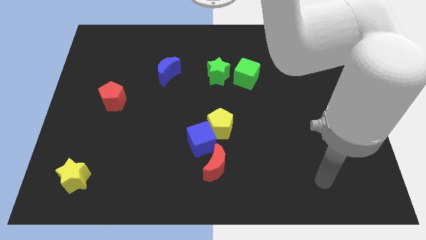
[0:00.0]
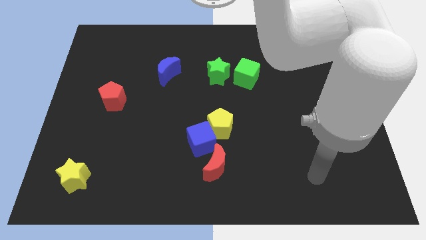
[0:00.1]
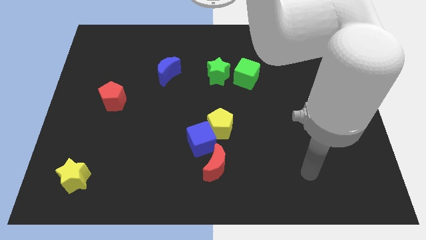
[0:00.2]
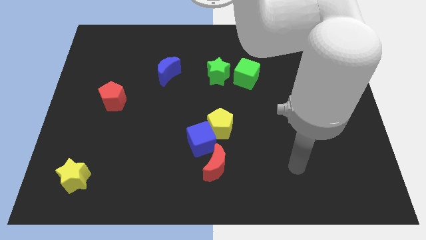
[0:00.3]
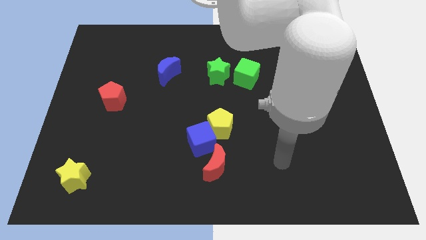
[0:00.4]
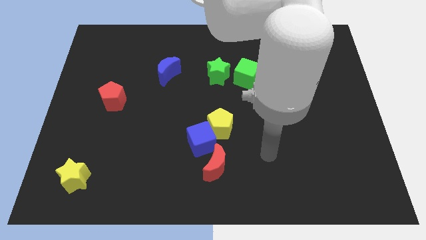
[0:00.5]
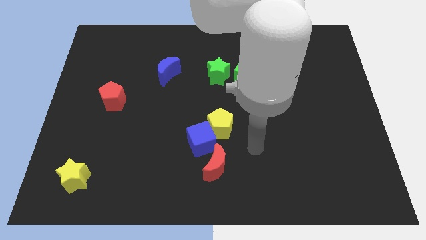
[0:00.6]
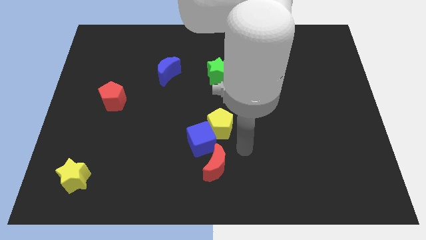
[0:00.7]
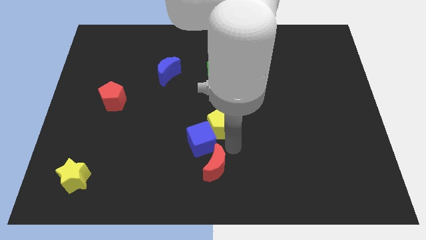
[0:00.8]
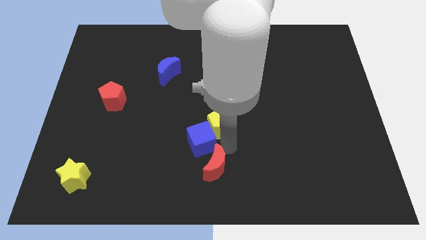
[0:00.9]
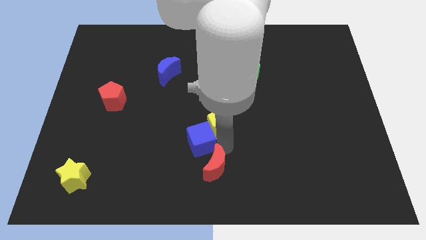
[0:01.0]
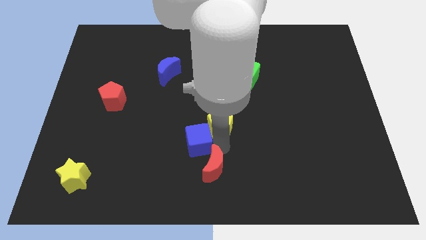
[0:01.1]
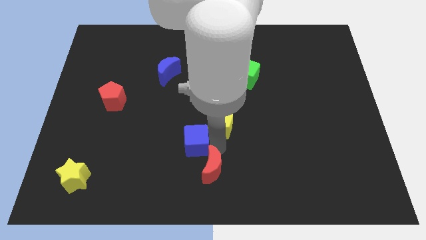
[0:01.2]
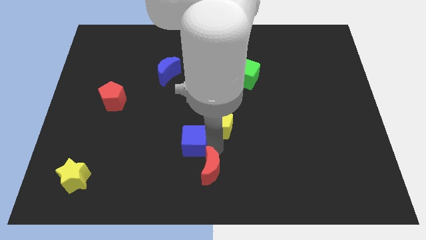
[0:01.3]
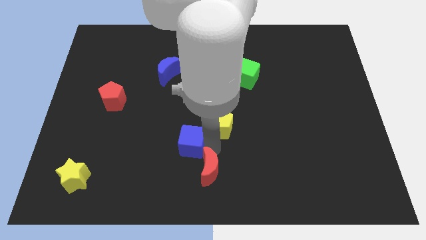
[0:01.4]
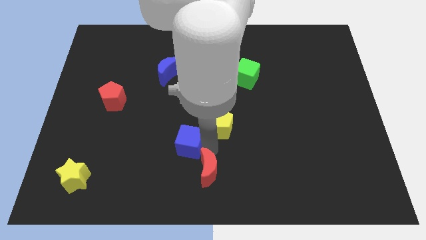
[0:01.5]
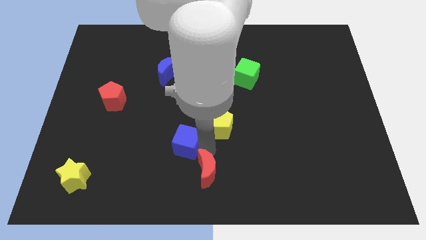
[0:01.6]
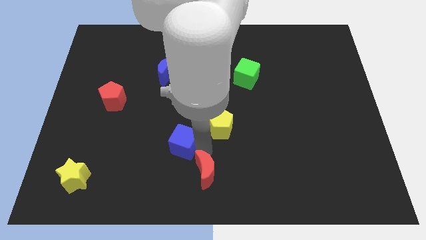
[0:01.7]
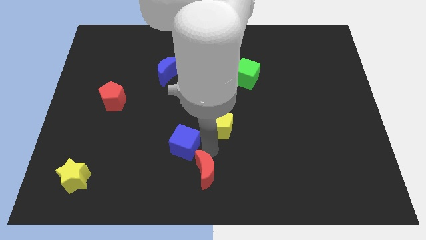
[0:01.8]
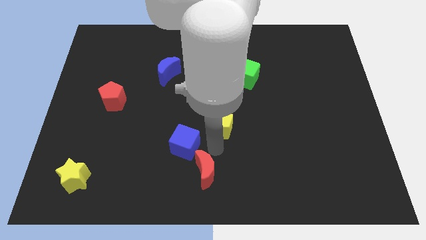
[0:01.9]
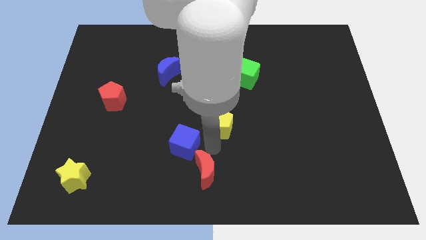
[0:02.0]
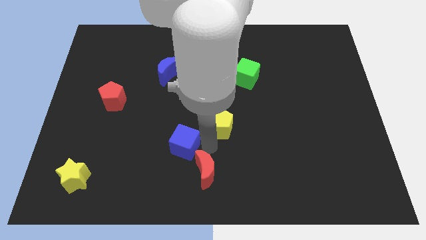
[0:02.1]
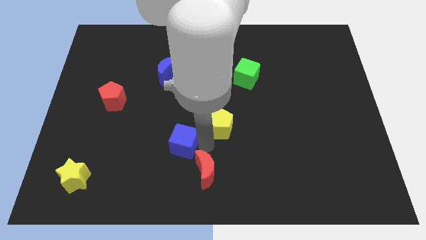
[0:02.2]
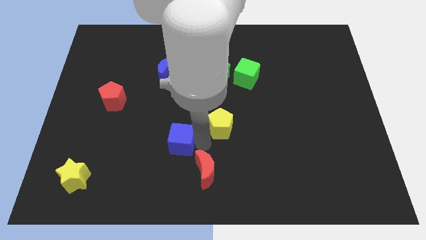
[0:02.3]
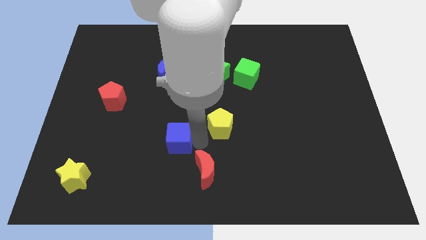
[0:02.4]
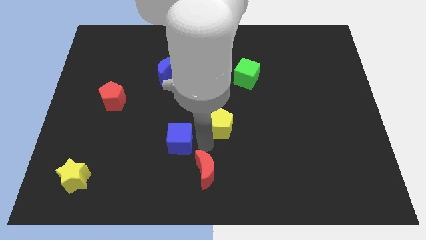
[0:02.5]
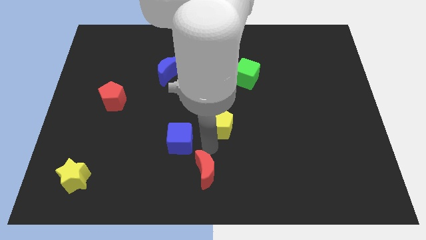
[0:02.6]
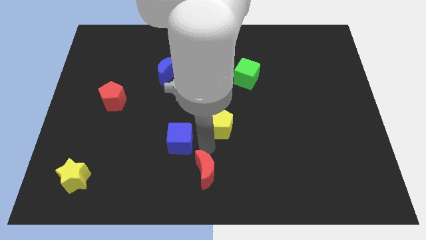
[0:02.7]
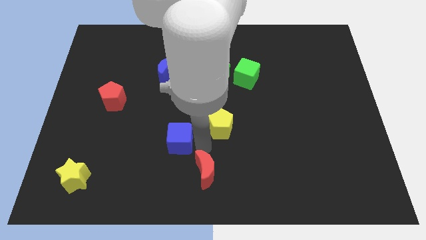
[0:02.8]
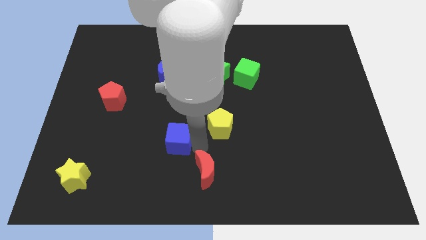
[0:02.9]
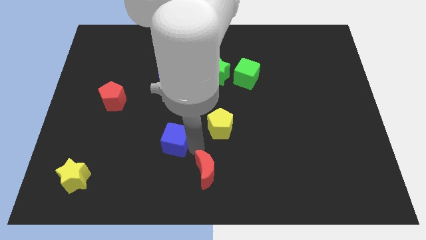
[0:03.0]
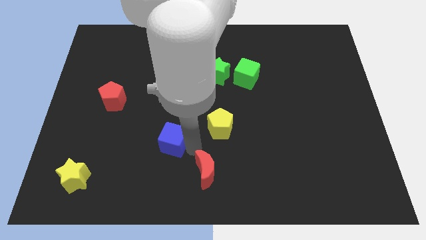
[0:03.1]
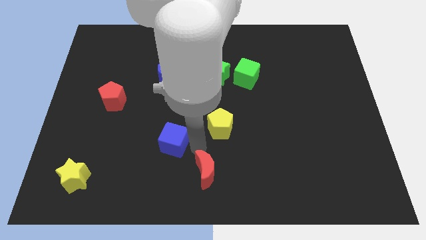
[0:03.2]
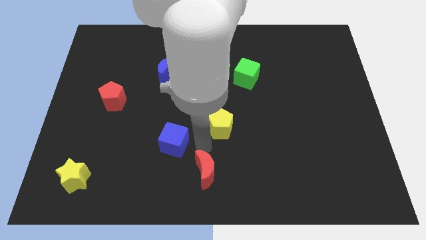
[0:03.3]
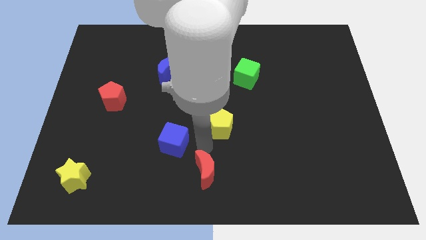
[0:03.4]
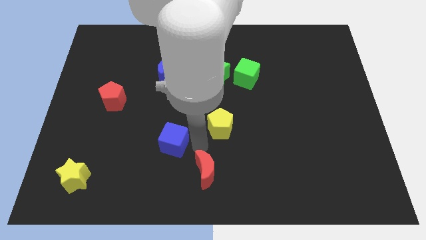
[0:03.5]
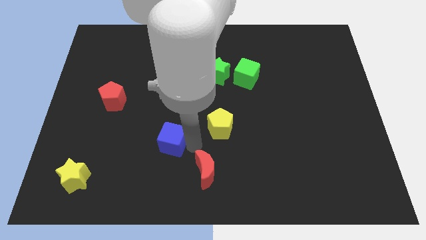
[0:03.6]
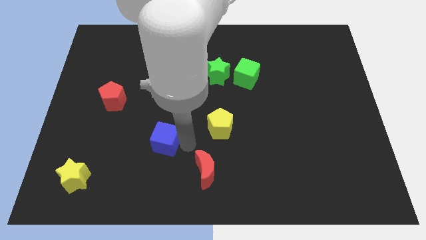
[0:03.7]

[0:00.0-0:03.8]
pull the blue cube apart from the yellow pentagon and red moon

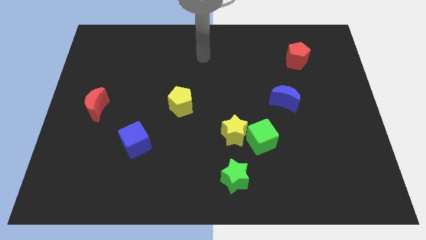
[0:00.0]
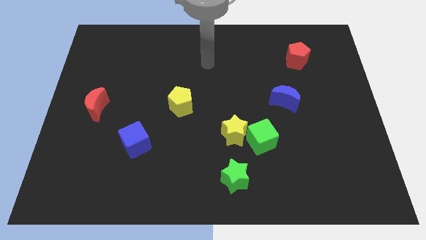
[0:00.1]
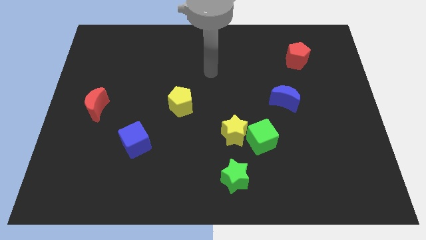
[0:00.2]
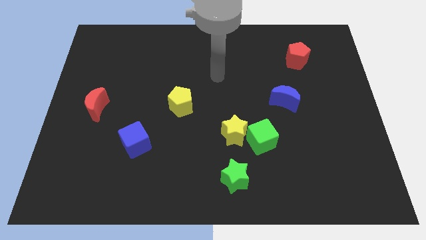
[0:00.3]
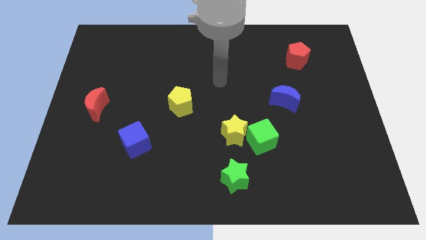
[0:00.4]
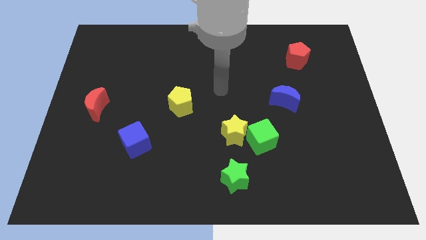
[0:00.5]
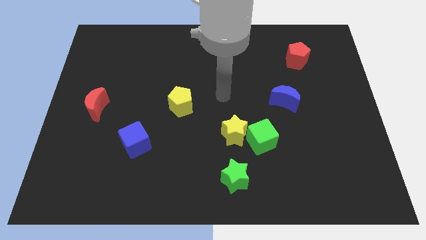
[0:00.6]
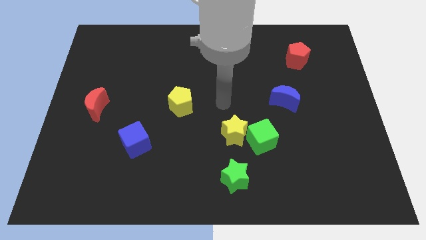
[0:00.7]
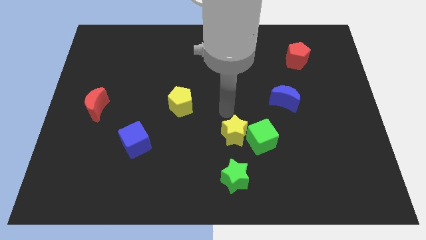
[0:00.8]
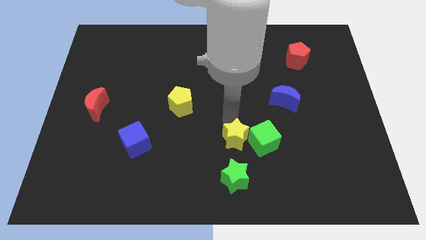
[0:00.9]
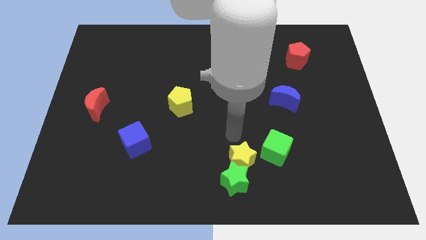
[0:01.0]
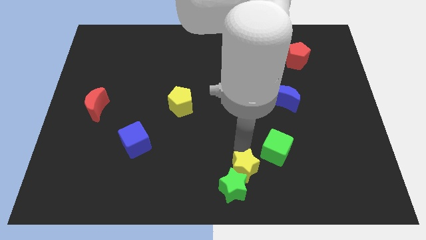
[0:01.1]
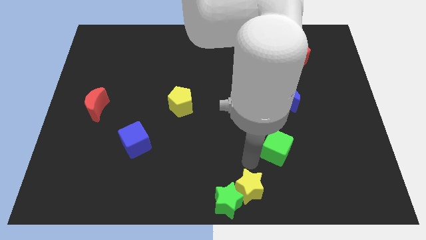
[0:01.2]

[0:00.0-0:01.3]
separate the green cube from the yellow star

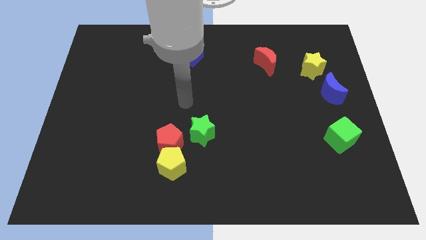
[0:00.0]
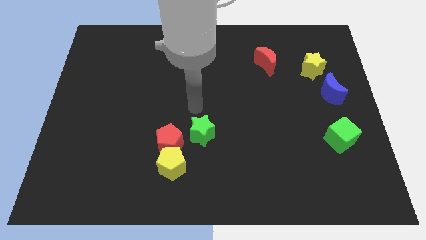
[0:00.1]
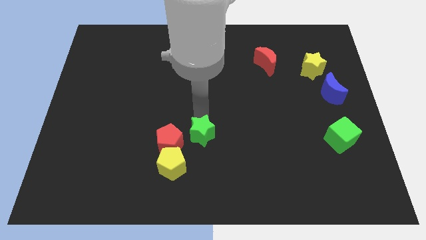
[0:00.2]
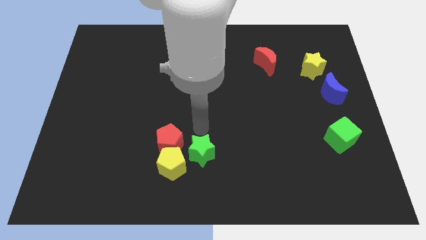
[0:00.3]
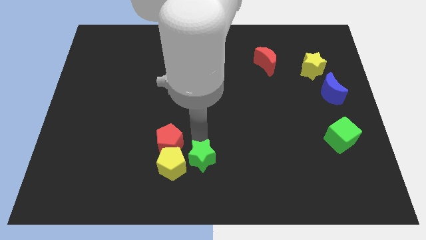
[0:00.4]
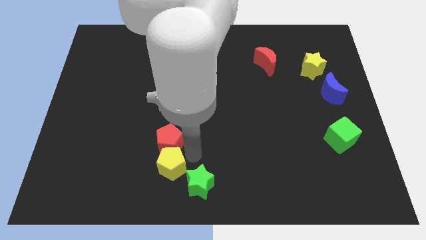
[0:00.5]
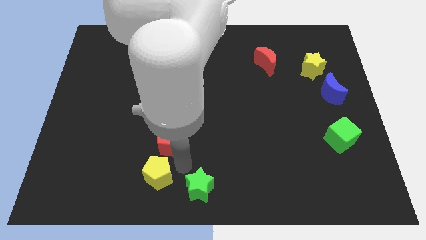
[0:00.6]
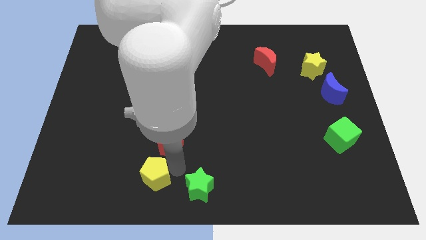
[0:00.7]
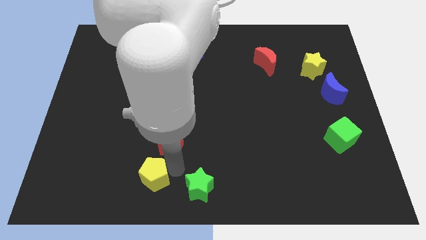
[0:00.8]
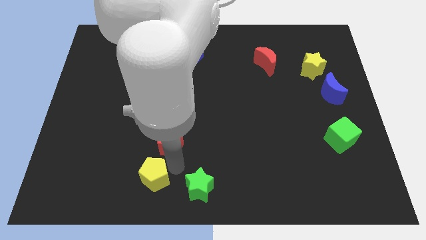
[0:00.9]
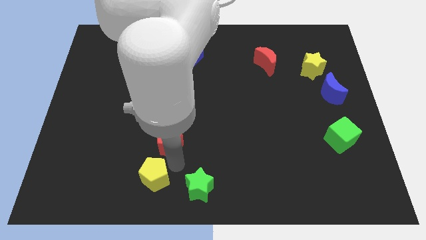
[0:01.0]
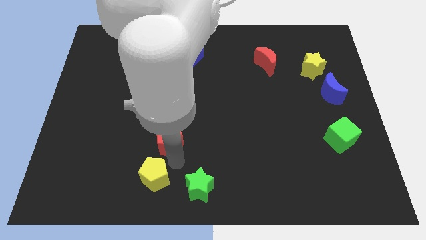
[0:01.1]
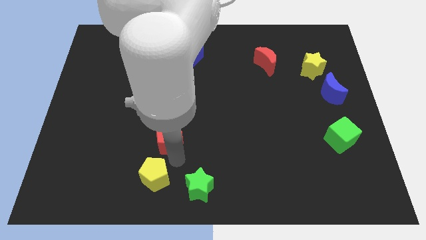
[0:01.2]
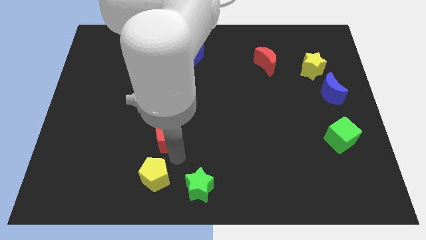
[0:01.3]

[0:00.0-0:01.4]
pull the red pentagon apart from the yellow pentagon and green star

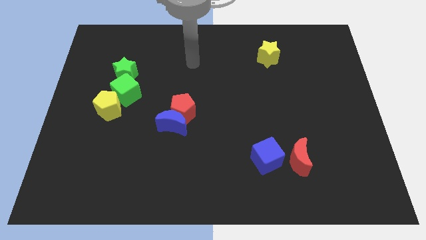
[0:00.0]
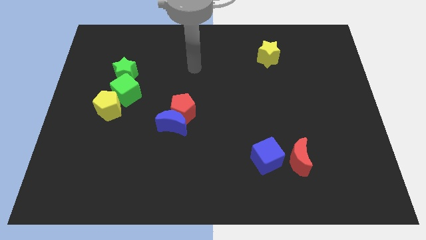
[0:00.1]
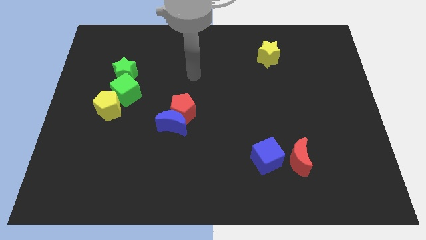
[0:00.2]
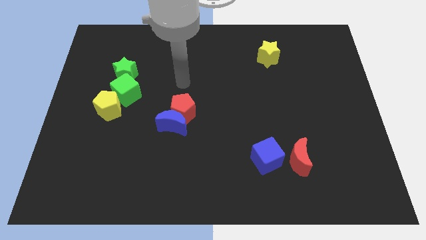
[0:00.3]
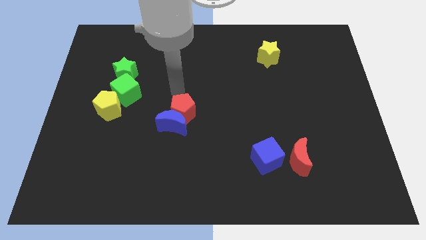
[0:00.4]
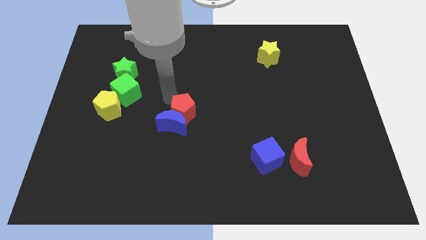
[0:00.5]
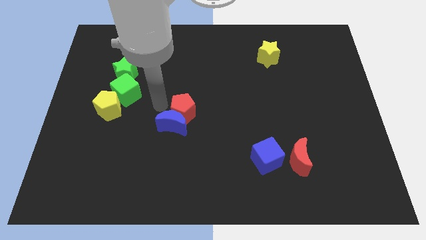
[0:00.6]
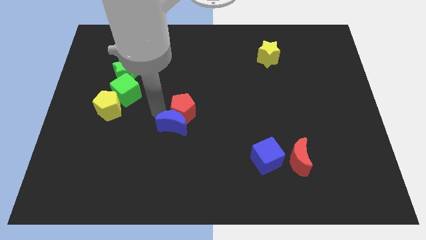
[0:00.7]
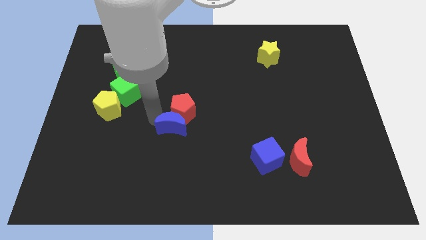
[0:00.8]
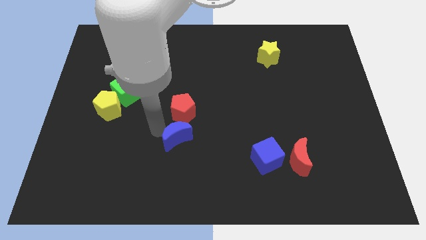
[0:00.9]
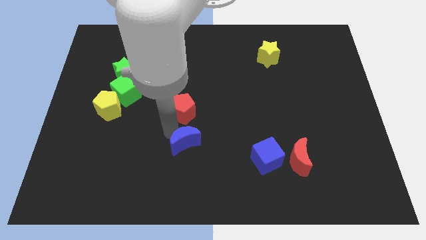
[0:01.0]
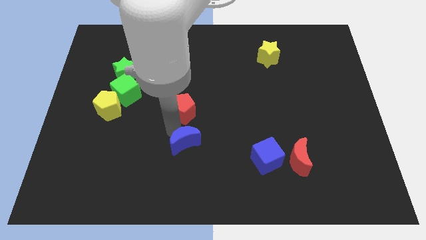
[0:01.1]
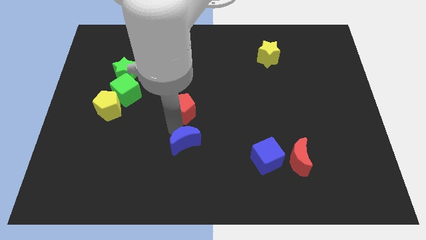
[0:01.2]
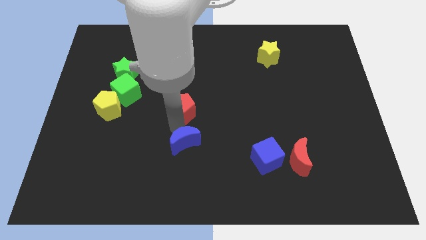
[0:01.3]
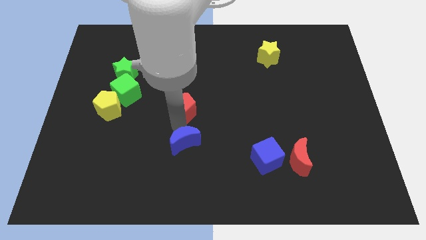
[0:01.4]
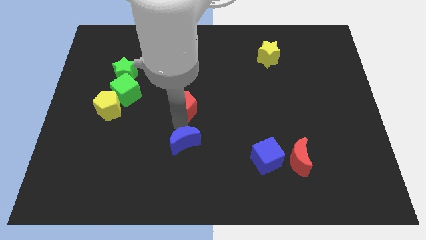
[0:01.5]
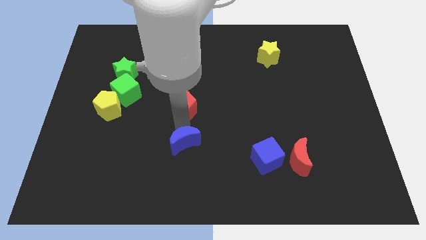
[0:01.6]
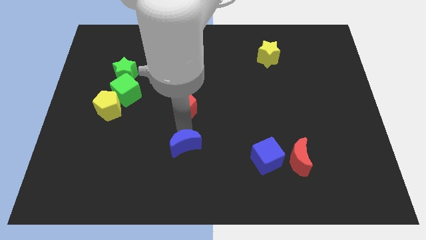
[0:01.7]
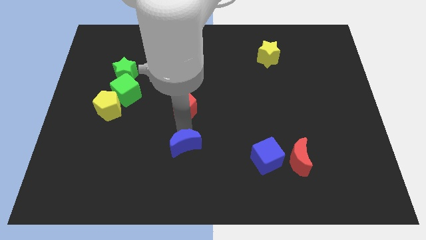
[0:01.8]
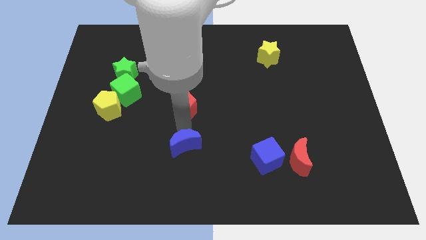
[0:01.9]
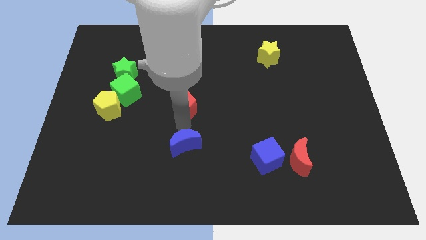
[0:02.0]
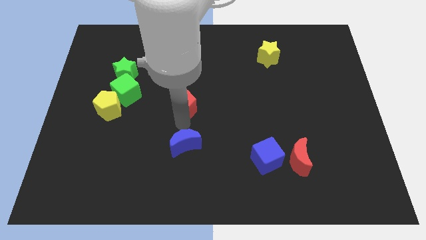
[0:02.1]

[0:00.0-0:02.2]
separate the red pentagon from the blue moon

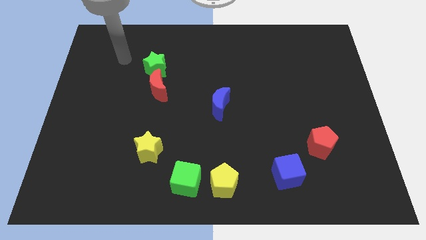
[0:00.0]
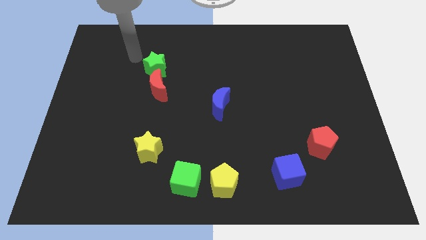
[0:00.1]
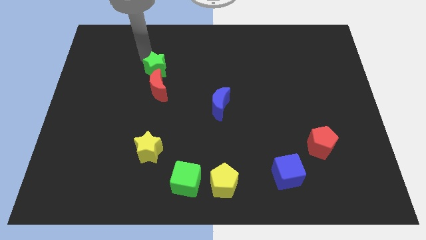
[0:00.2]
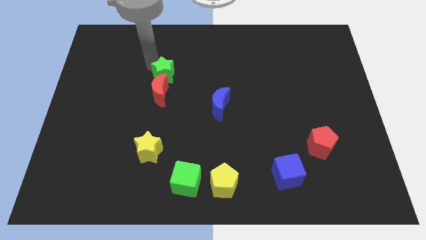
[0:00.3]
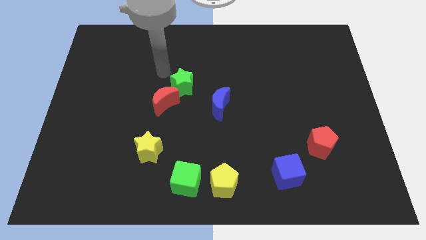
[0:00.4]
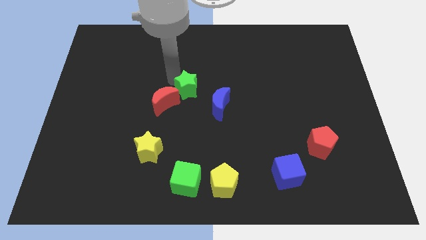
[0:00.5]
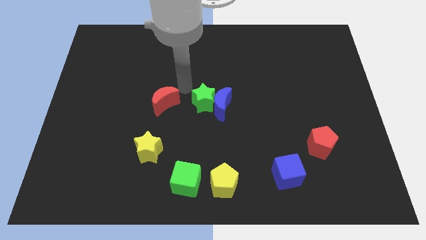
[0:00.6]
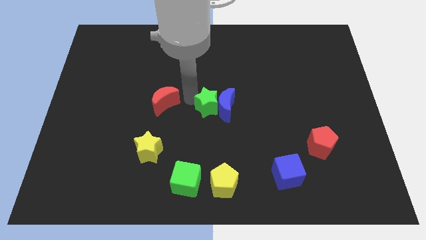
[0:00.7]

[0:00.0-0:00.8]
move the red moon away from the green star
